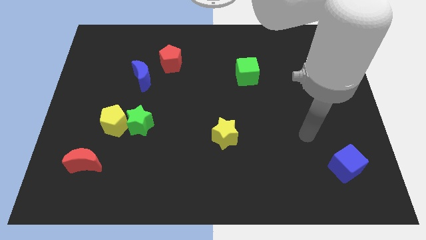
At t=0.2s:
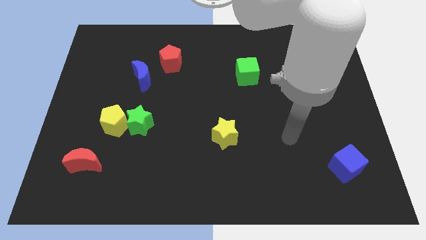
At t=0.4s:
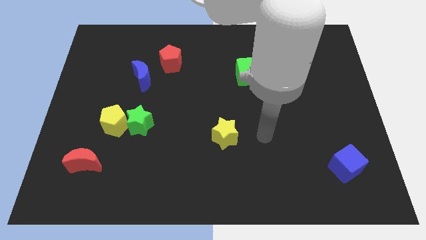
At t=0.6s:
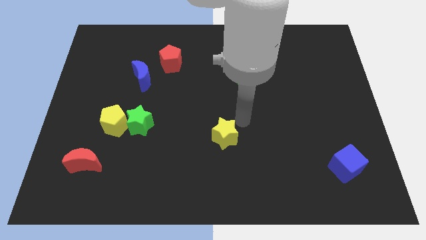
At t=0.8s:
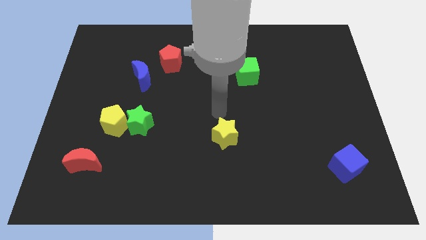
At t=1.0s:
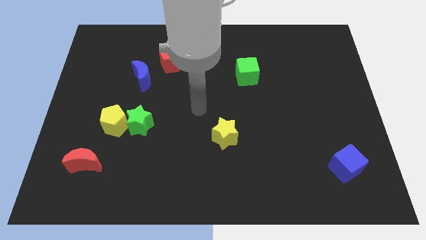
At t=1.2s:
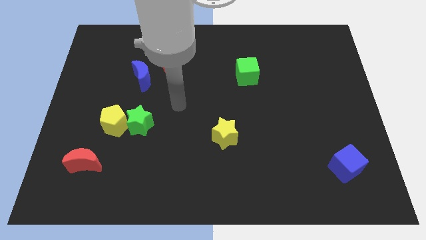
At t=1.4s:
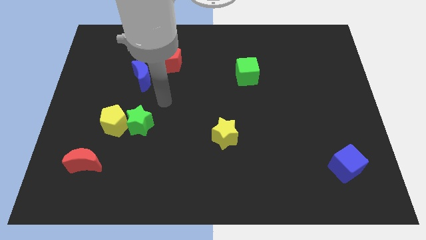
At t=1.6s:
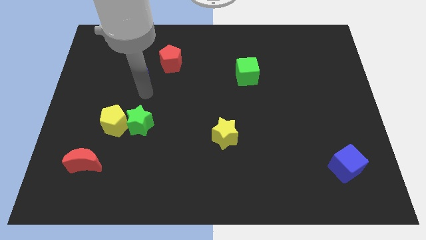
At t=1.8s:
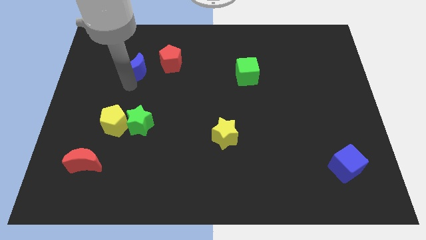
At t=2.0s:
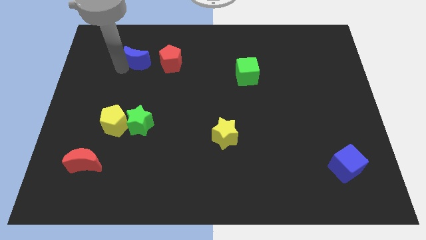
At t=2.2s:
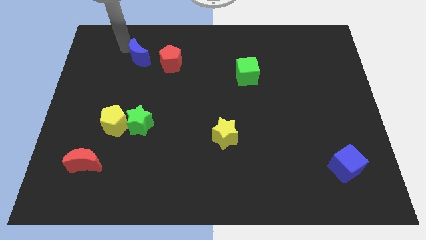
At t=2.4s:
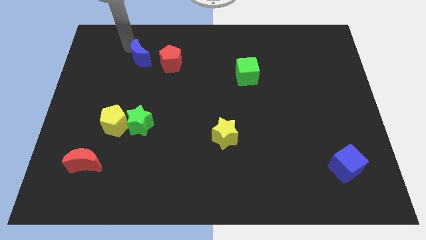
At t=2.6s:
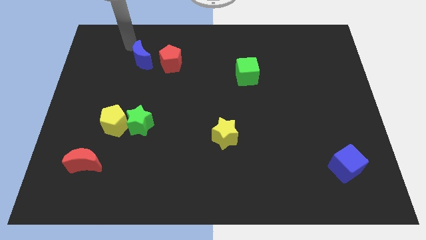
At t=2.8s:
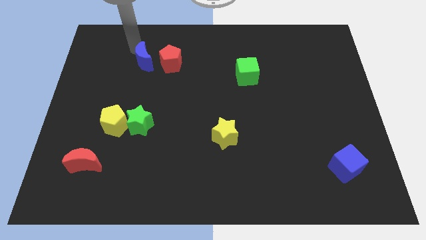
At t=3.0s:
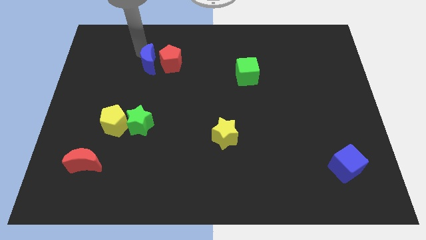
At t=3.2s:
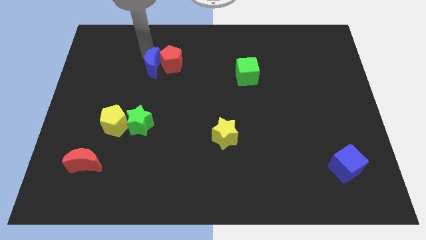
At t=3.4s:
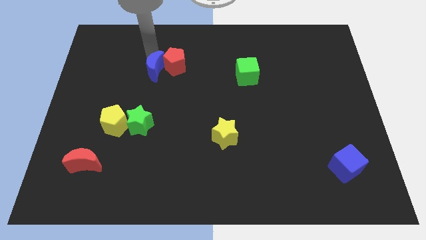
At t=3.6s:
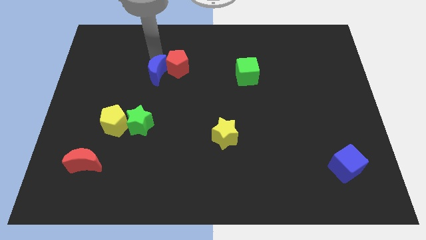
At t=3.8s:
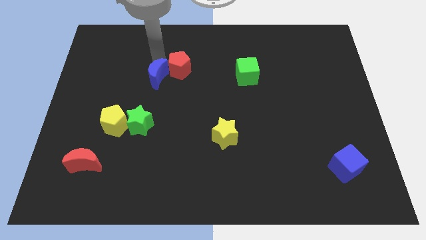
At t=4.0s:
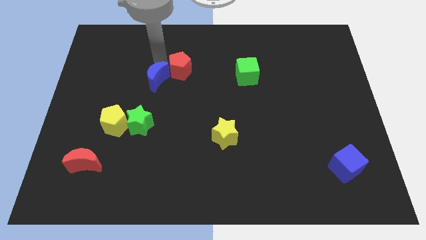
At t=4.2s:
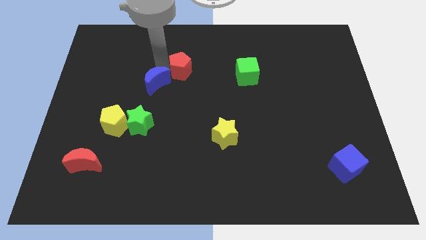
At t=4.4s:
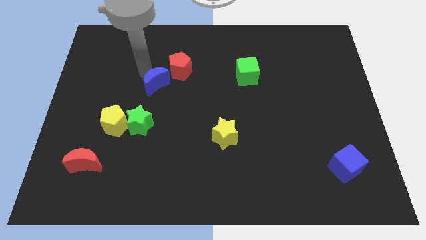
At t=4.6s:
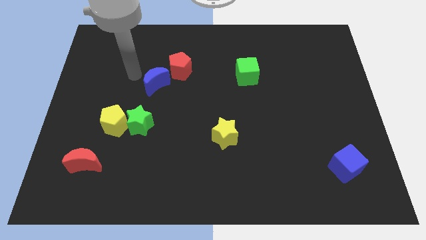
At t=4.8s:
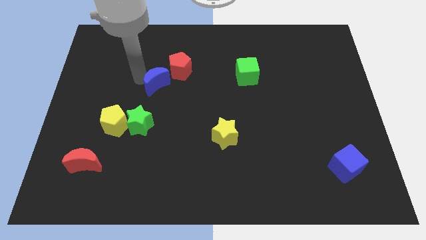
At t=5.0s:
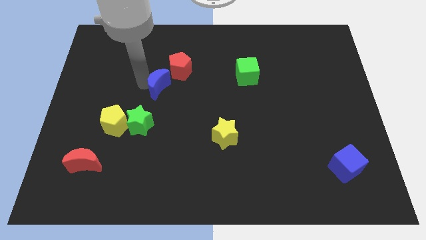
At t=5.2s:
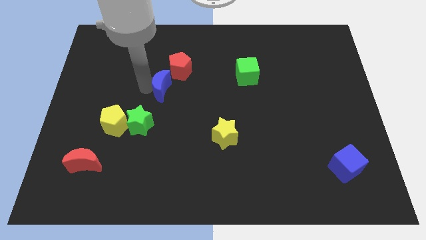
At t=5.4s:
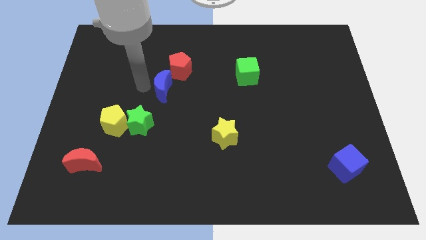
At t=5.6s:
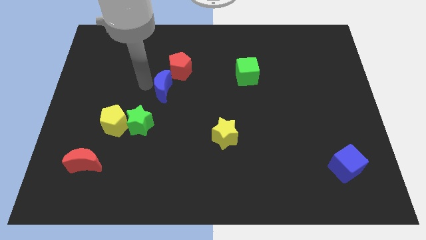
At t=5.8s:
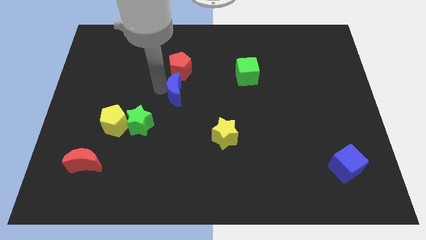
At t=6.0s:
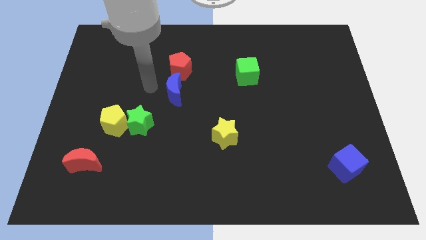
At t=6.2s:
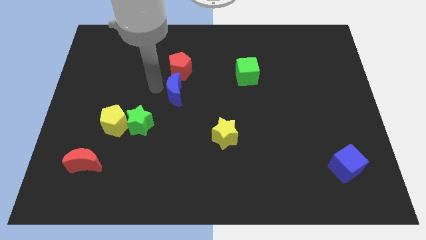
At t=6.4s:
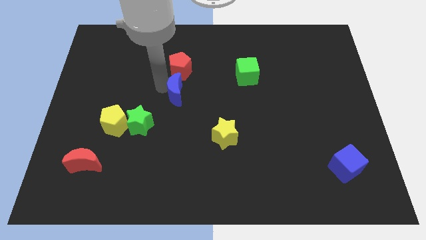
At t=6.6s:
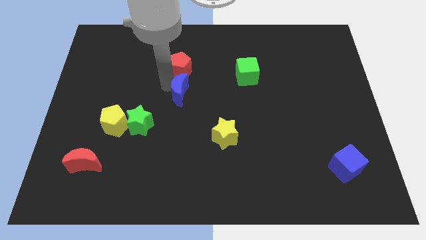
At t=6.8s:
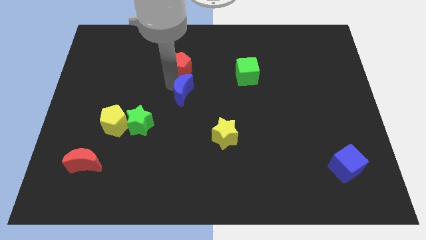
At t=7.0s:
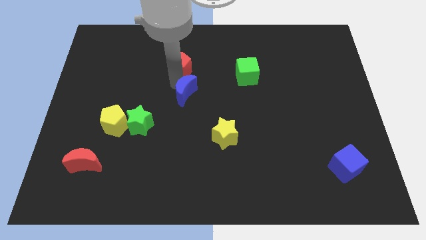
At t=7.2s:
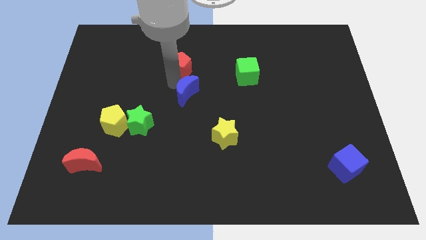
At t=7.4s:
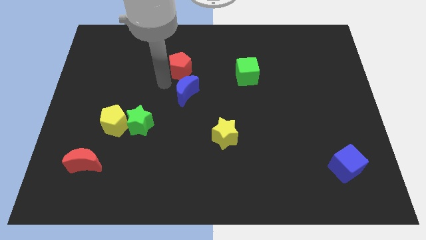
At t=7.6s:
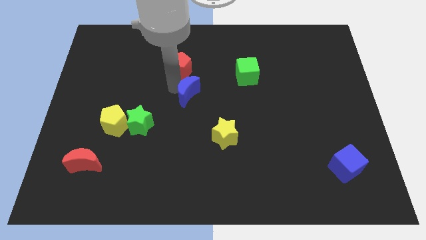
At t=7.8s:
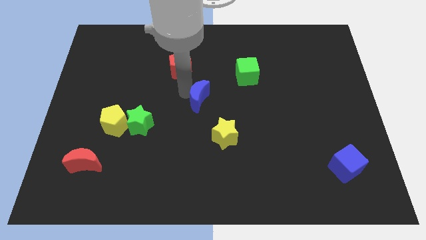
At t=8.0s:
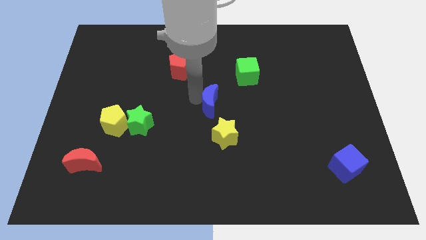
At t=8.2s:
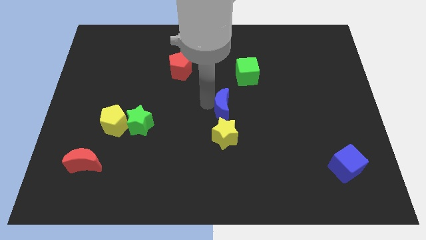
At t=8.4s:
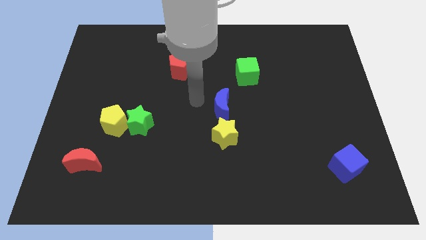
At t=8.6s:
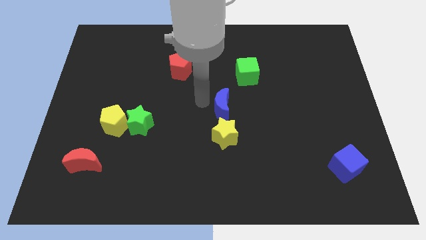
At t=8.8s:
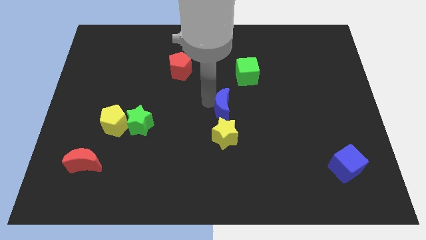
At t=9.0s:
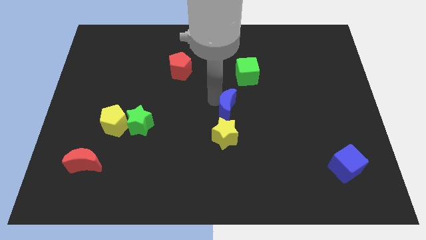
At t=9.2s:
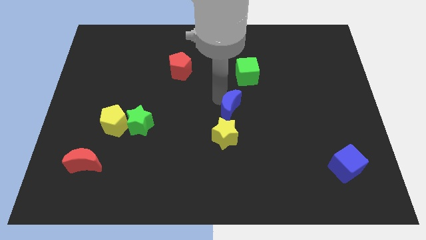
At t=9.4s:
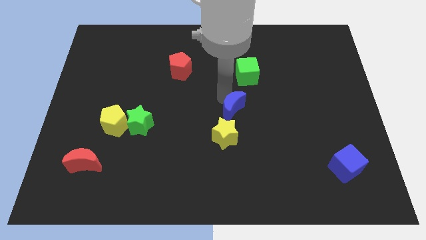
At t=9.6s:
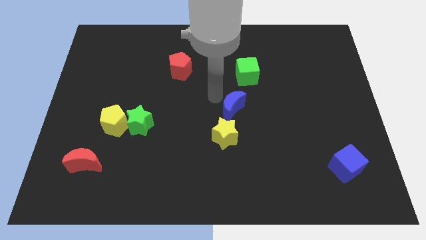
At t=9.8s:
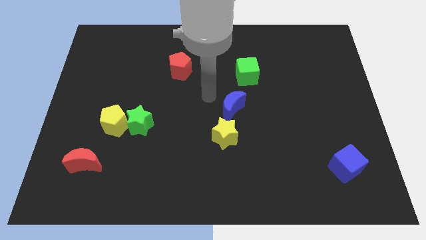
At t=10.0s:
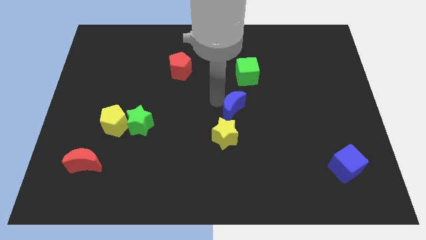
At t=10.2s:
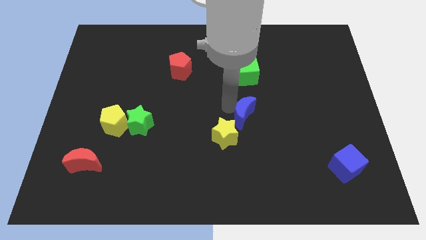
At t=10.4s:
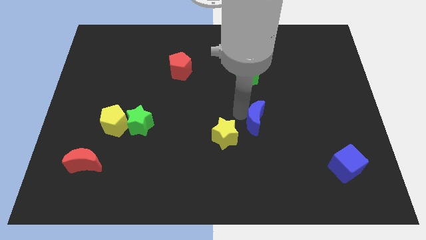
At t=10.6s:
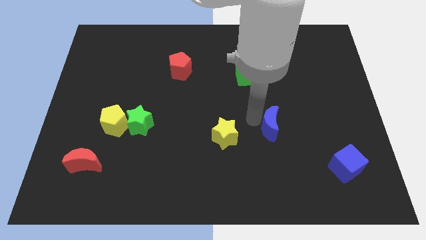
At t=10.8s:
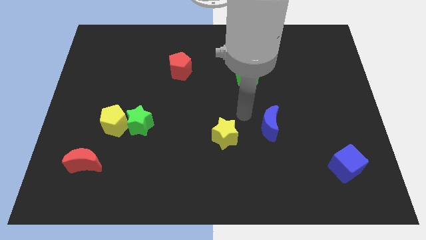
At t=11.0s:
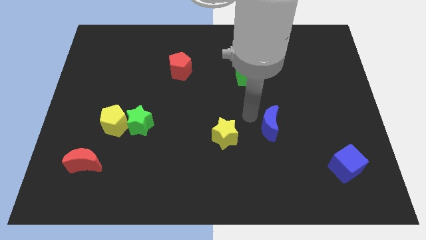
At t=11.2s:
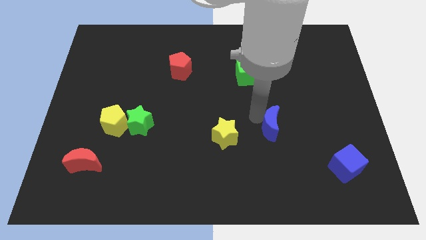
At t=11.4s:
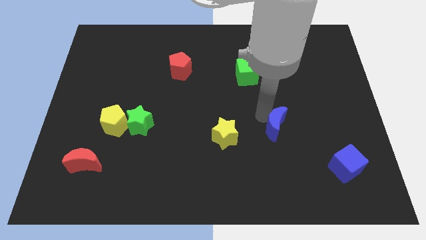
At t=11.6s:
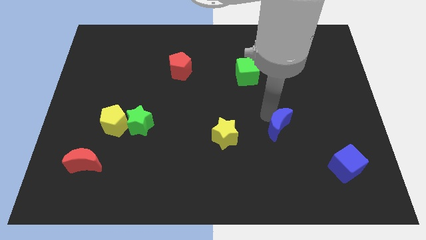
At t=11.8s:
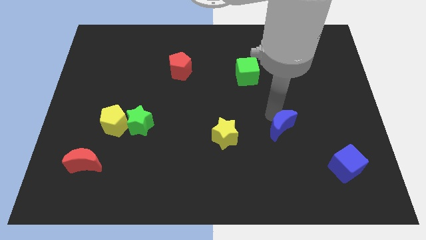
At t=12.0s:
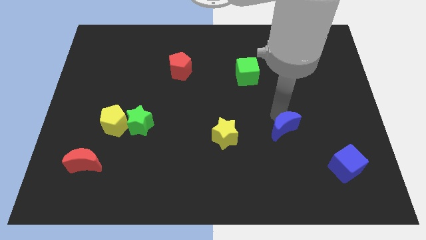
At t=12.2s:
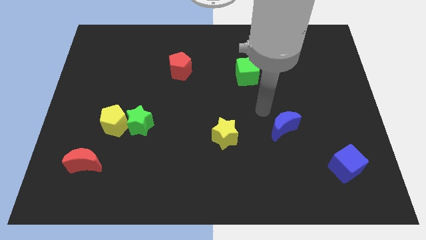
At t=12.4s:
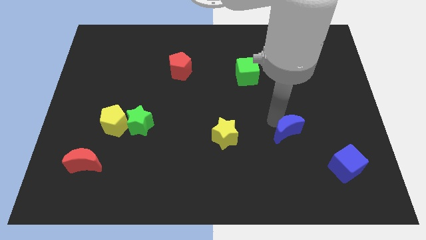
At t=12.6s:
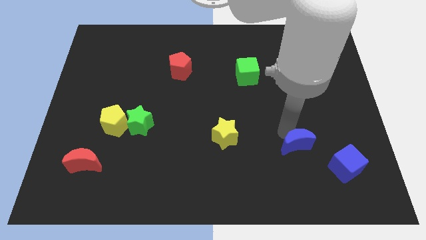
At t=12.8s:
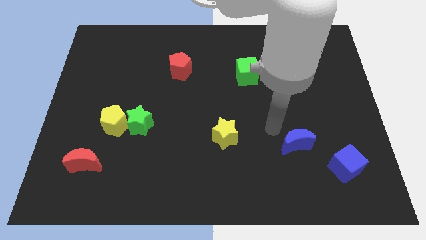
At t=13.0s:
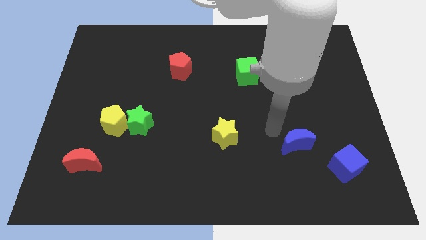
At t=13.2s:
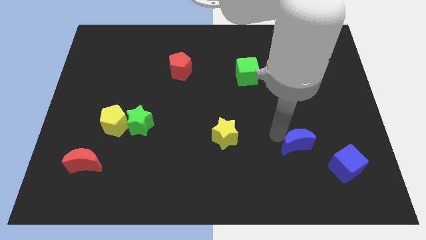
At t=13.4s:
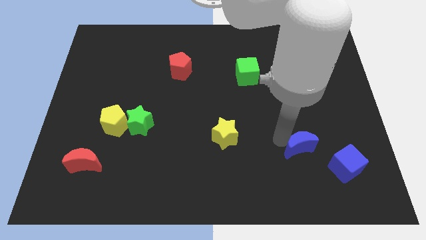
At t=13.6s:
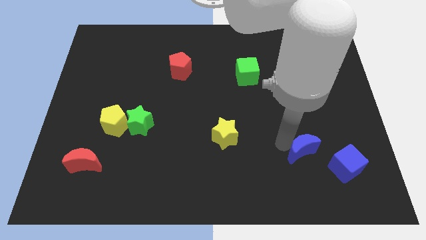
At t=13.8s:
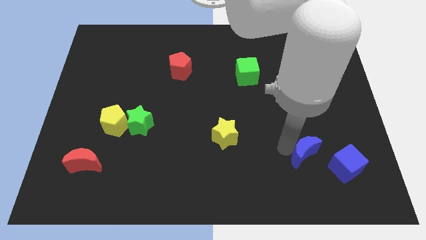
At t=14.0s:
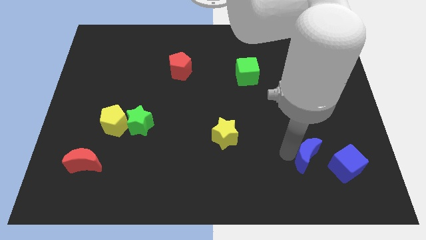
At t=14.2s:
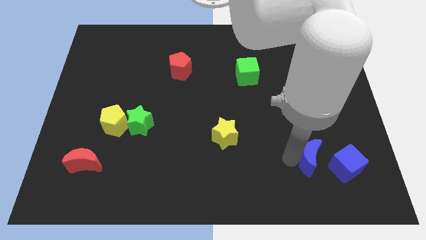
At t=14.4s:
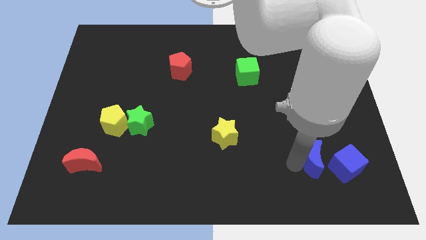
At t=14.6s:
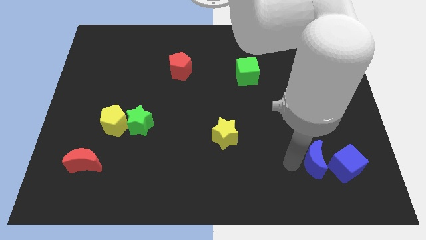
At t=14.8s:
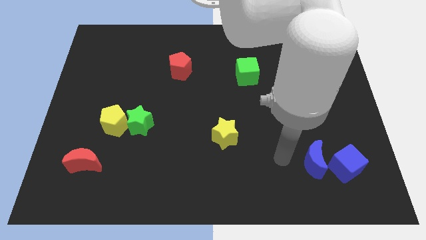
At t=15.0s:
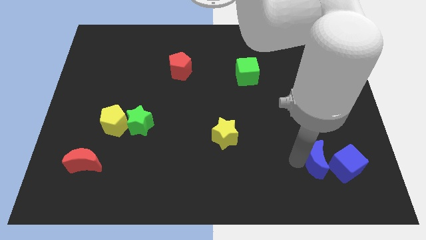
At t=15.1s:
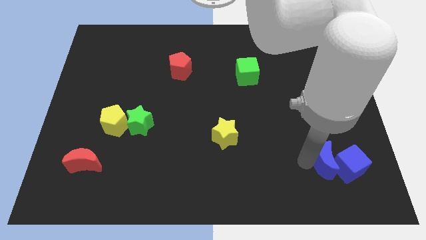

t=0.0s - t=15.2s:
move the blue moon close to the blue cube
